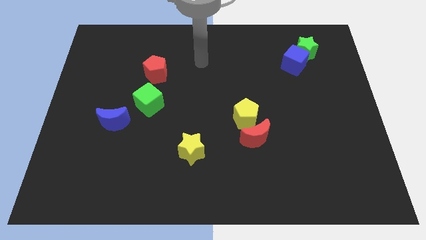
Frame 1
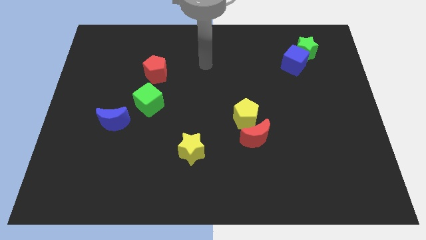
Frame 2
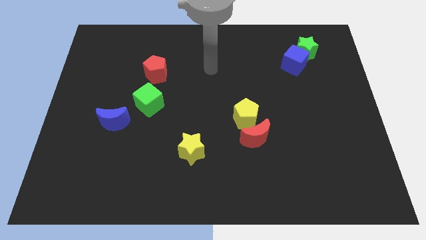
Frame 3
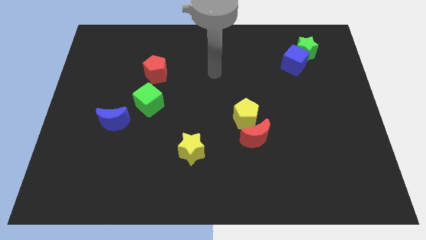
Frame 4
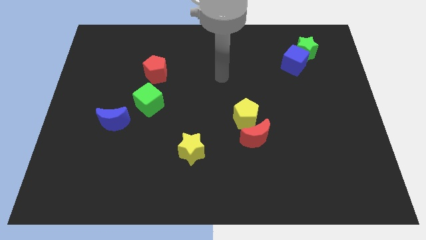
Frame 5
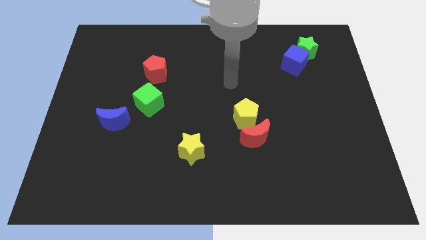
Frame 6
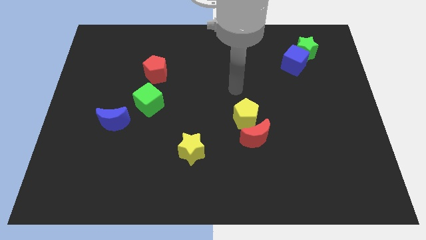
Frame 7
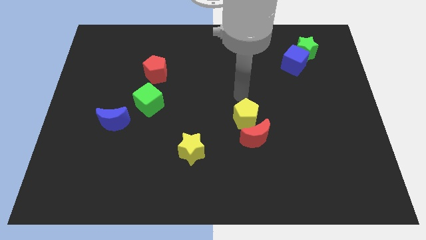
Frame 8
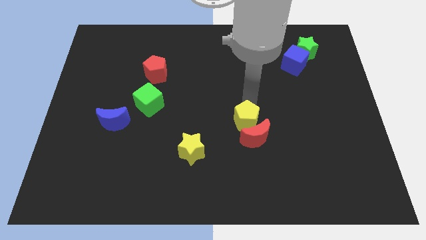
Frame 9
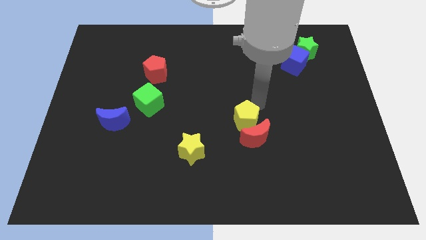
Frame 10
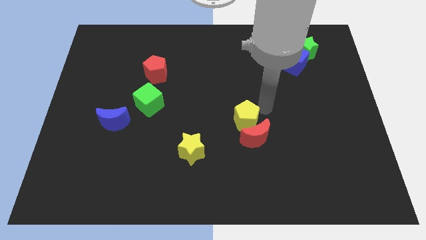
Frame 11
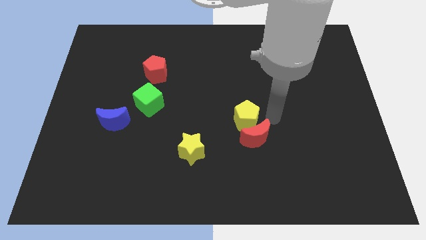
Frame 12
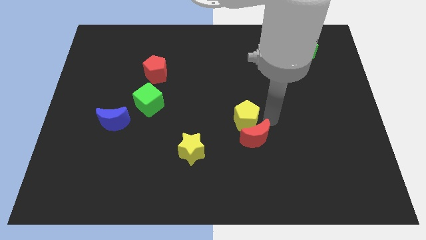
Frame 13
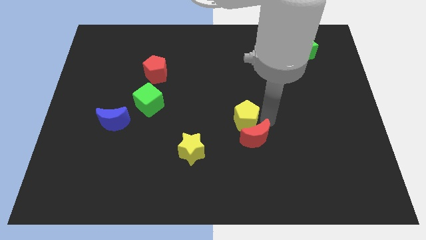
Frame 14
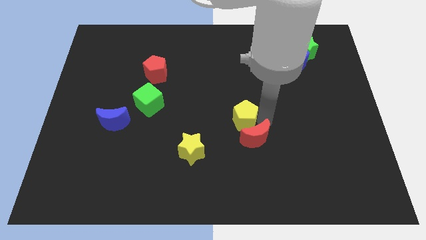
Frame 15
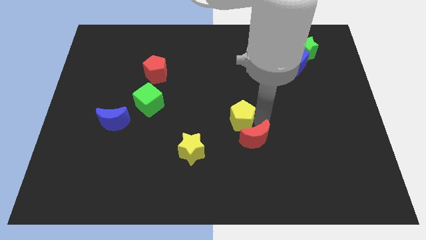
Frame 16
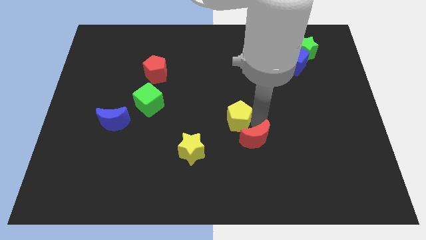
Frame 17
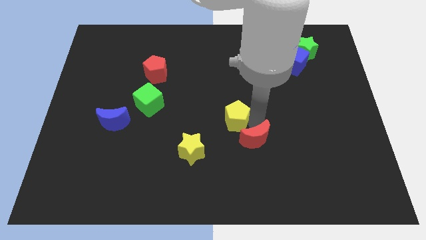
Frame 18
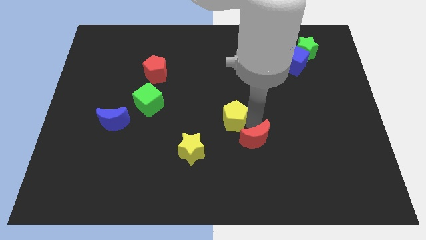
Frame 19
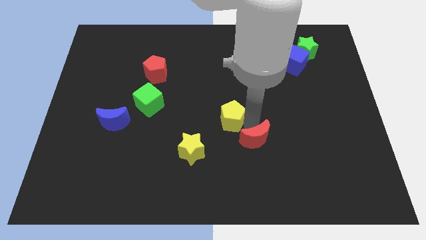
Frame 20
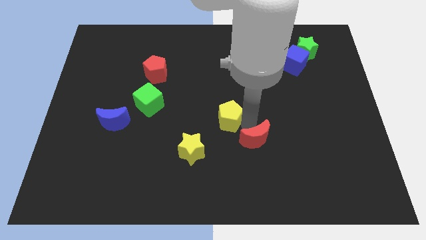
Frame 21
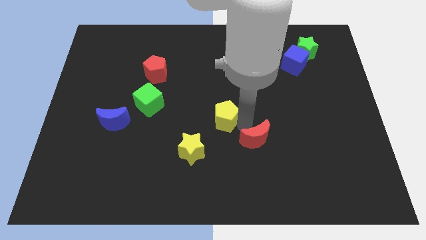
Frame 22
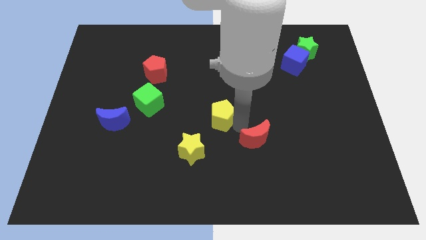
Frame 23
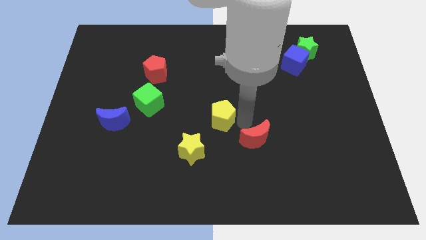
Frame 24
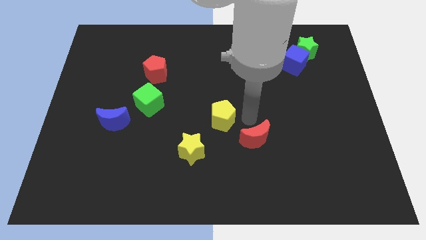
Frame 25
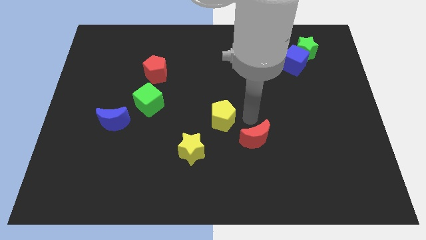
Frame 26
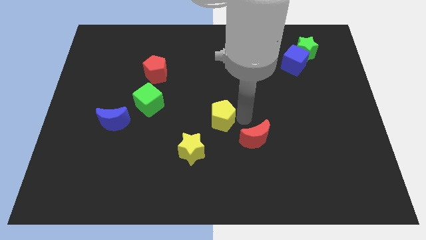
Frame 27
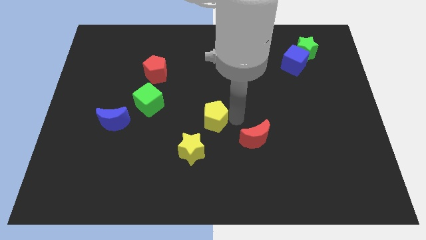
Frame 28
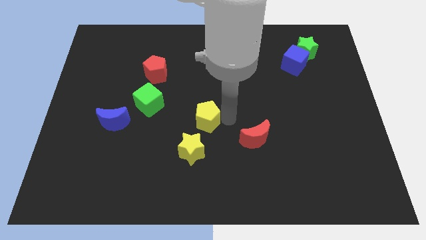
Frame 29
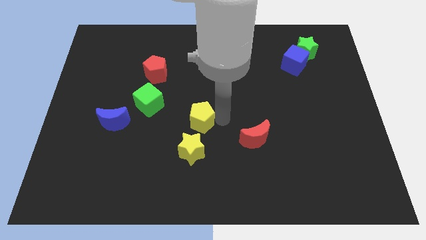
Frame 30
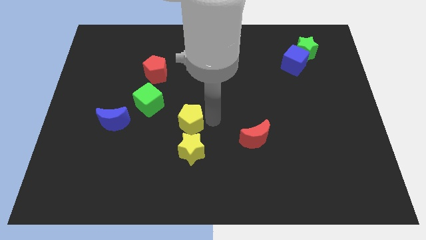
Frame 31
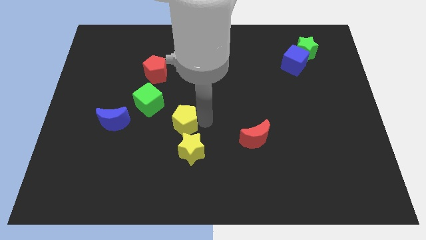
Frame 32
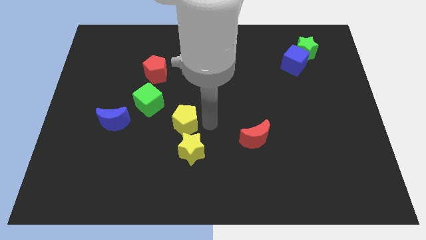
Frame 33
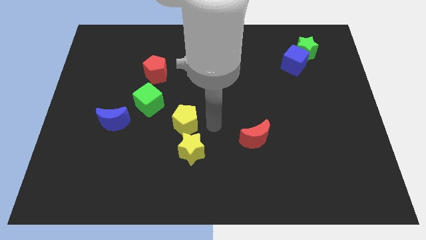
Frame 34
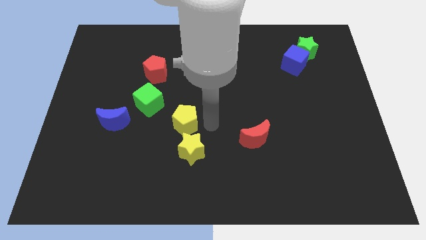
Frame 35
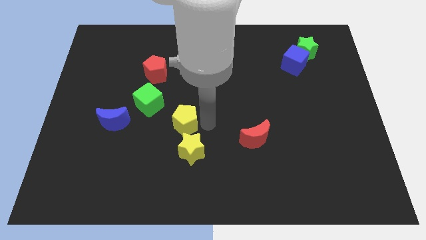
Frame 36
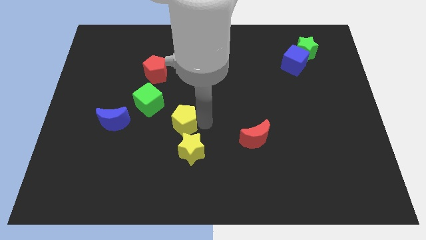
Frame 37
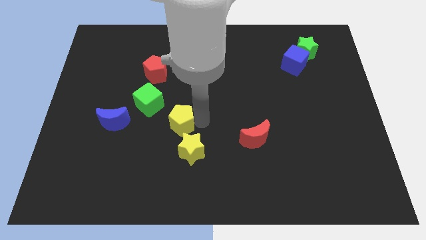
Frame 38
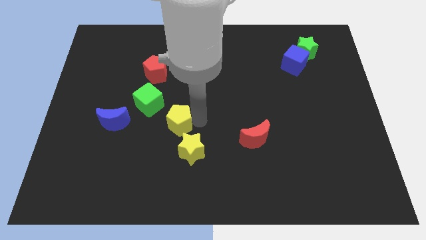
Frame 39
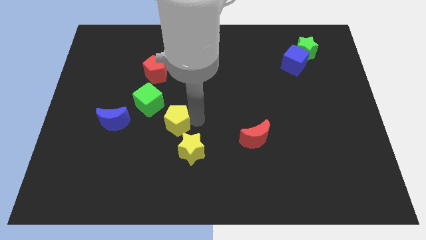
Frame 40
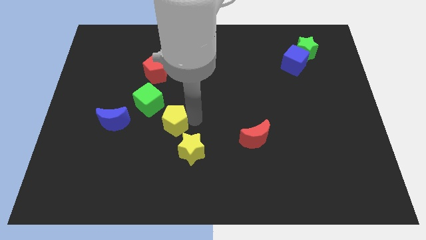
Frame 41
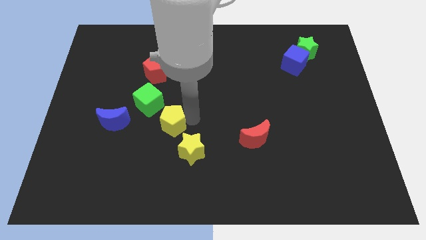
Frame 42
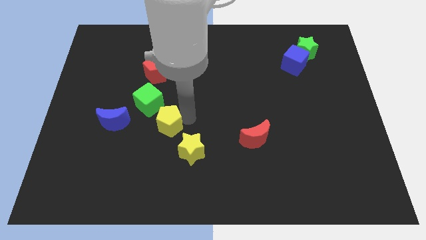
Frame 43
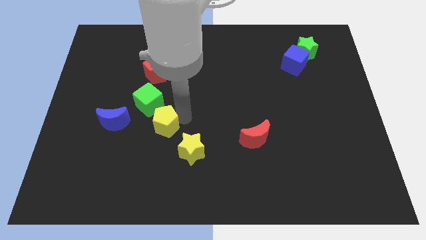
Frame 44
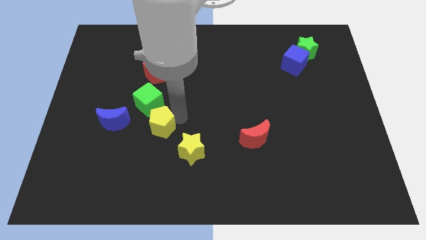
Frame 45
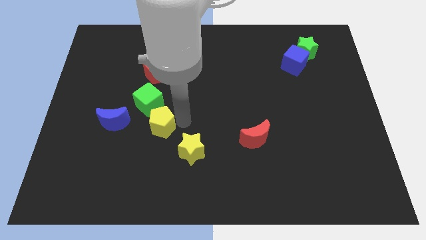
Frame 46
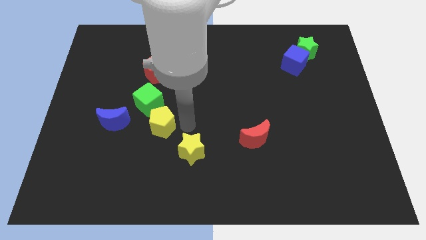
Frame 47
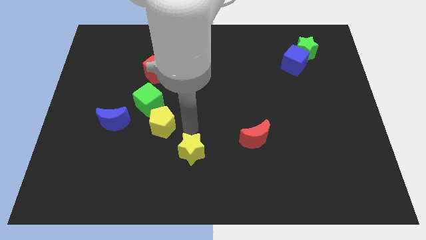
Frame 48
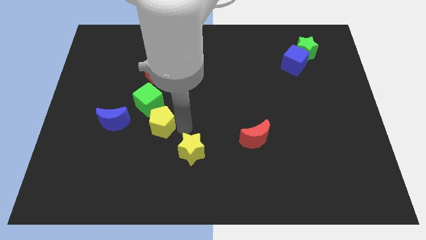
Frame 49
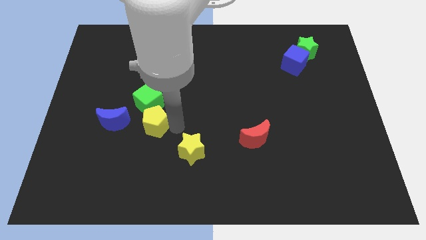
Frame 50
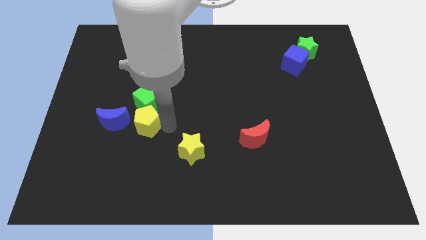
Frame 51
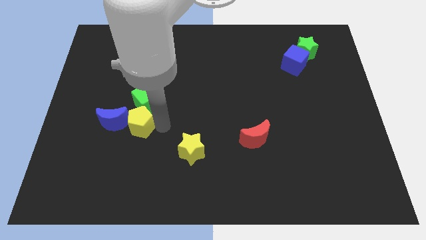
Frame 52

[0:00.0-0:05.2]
push the yellow pentagon towards the blue moon

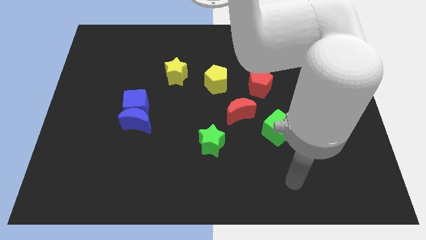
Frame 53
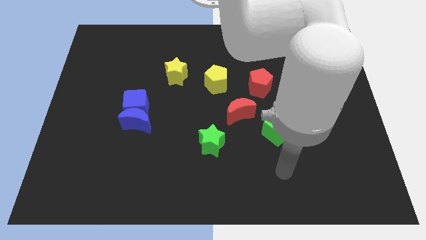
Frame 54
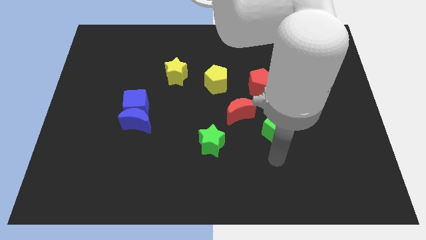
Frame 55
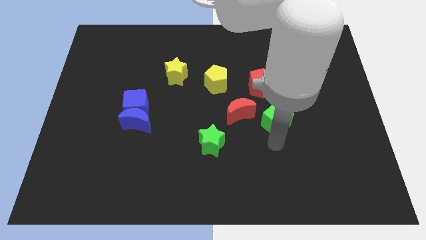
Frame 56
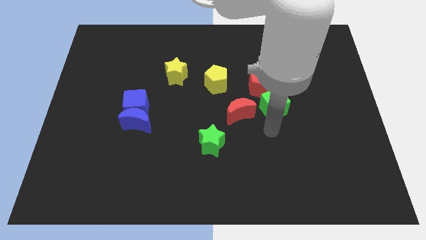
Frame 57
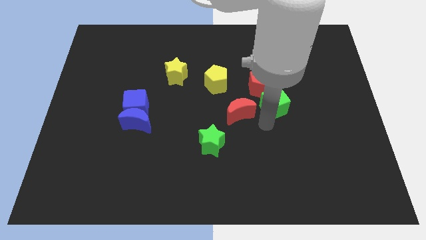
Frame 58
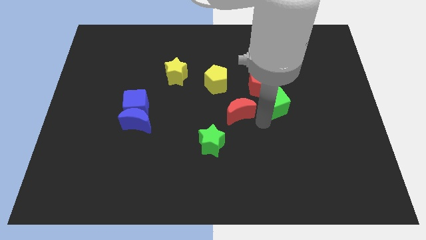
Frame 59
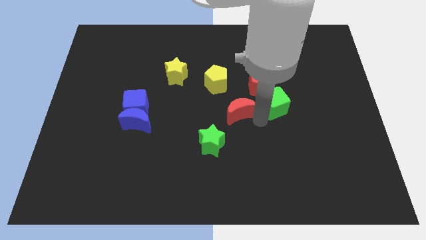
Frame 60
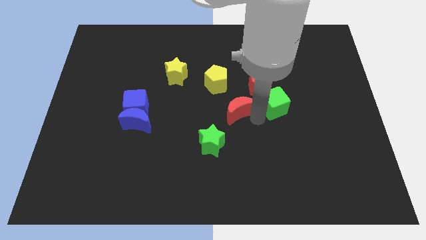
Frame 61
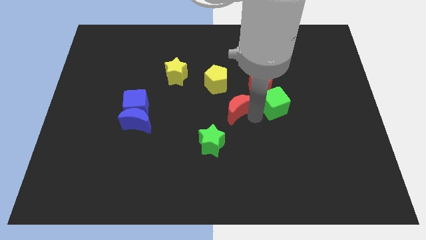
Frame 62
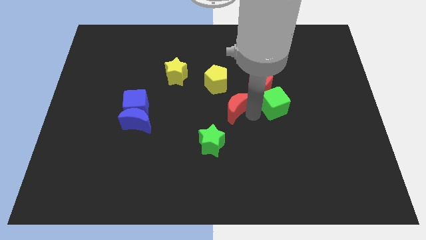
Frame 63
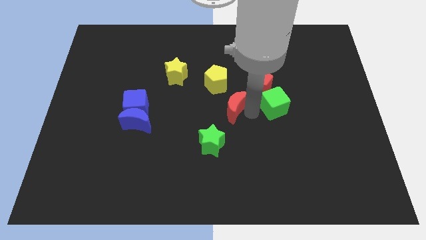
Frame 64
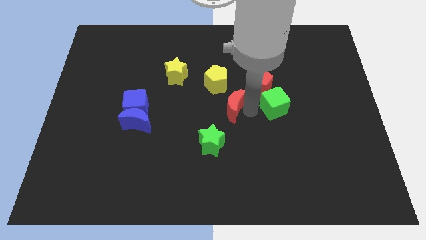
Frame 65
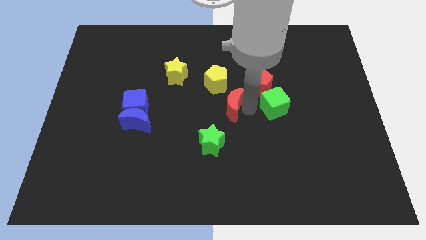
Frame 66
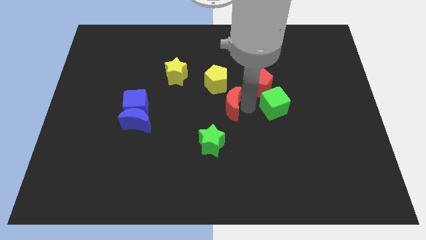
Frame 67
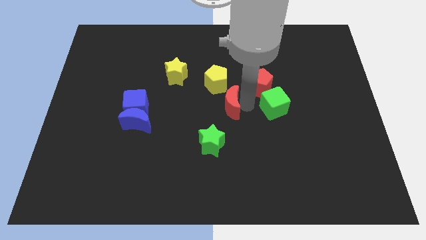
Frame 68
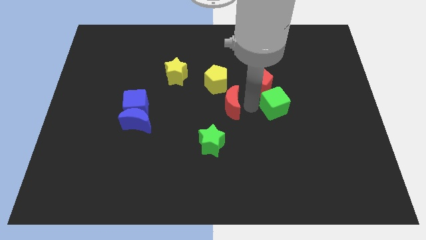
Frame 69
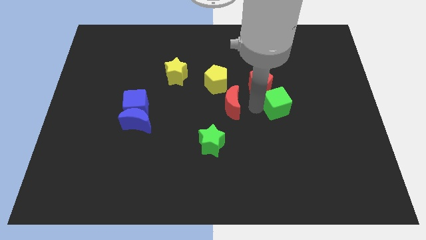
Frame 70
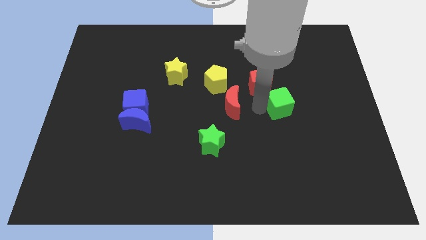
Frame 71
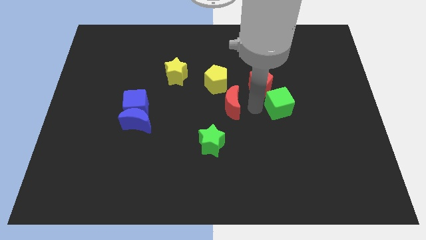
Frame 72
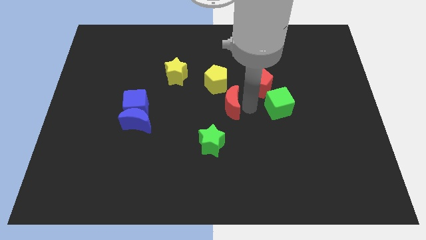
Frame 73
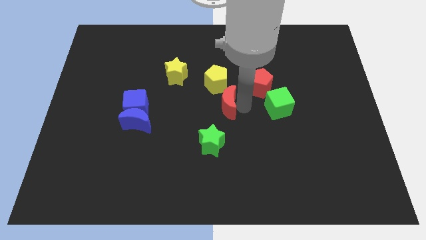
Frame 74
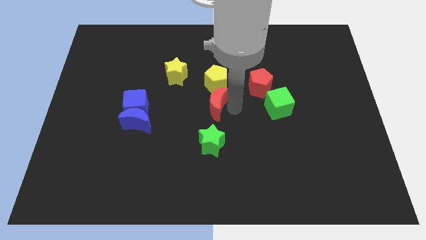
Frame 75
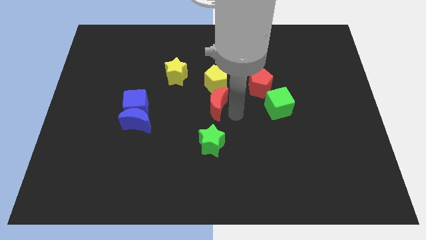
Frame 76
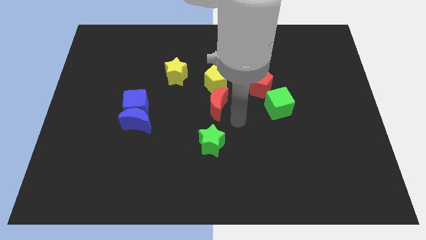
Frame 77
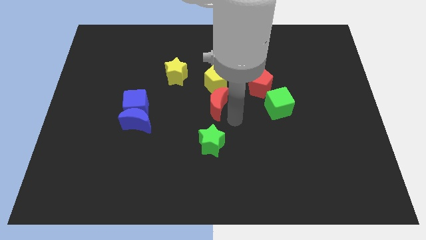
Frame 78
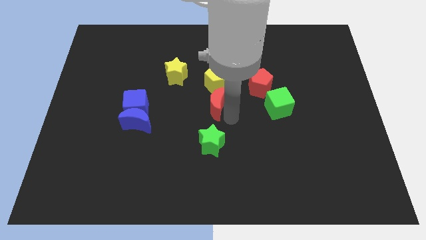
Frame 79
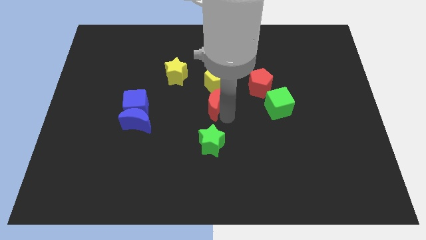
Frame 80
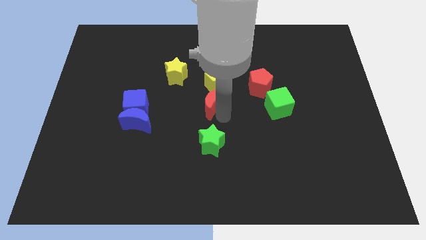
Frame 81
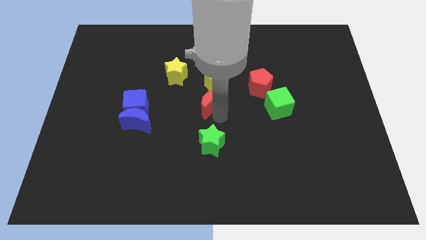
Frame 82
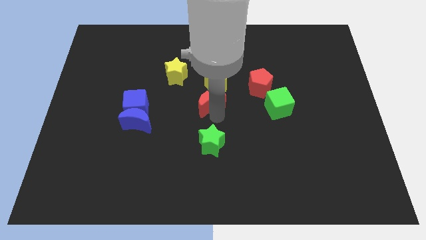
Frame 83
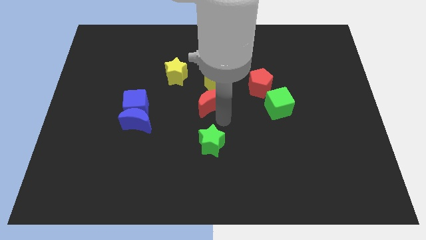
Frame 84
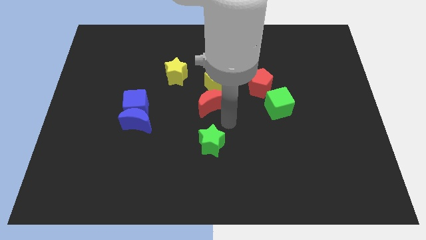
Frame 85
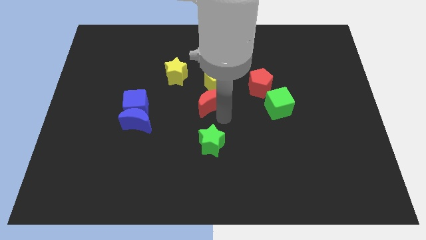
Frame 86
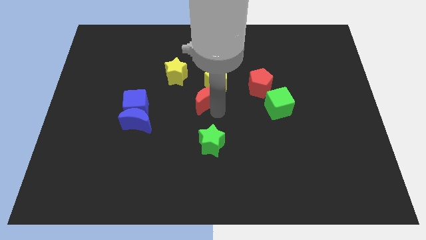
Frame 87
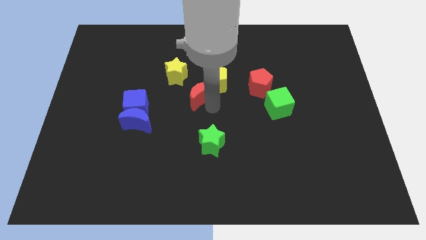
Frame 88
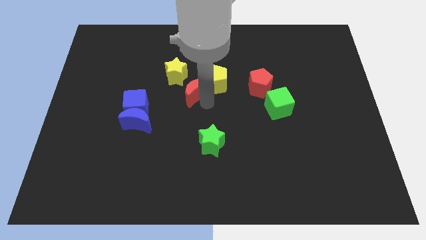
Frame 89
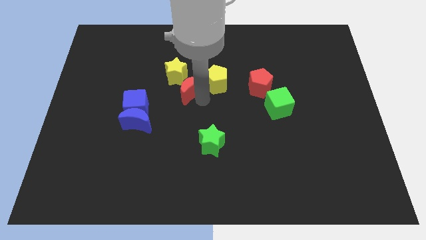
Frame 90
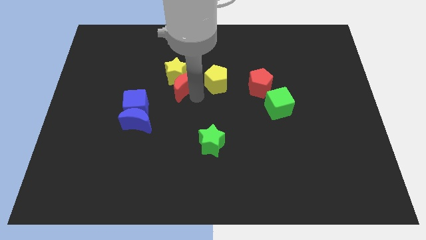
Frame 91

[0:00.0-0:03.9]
put the red moon towards the yellow star
